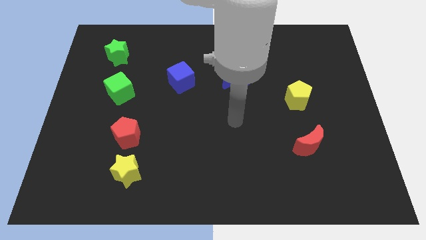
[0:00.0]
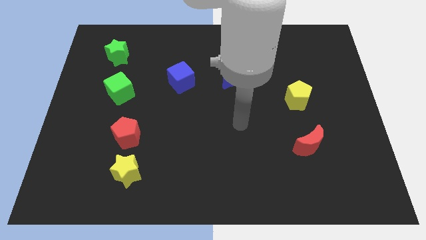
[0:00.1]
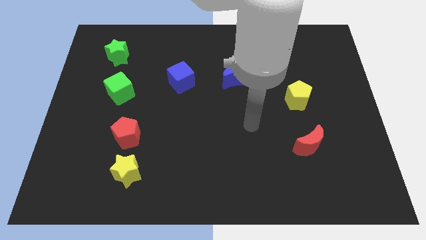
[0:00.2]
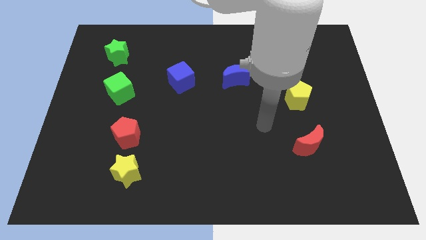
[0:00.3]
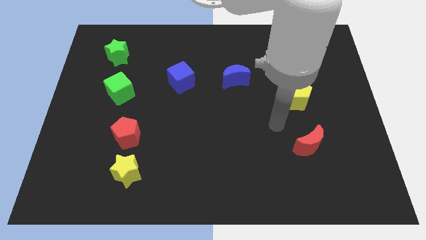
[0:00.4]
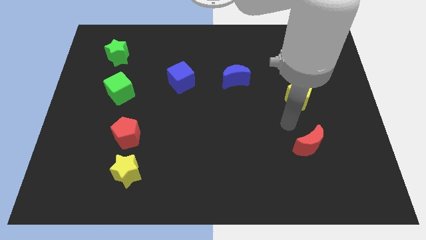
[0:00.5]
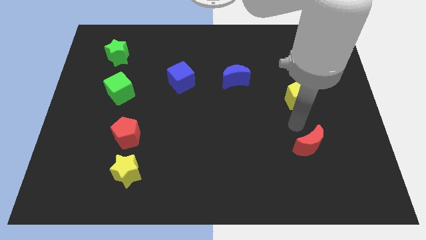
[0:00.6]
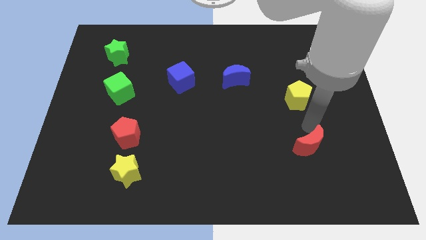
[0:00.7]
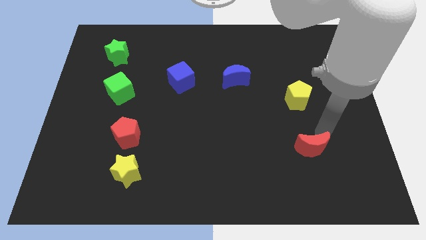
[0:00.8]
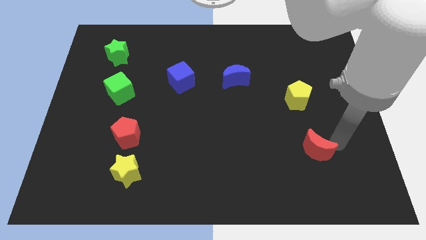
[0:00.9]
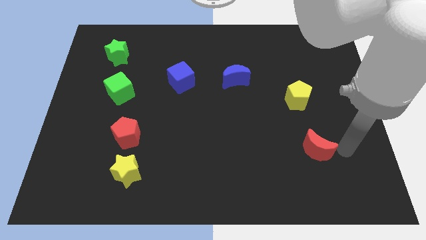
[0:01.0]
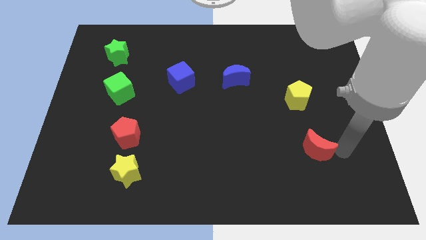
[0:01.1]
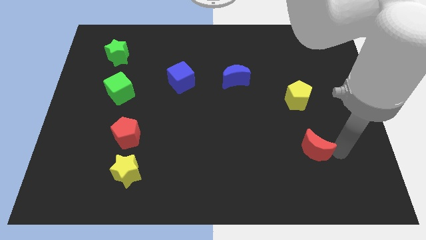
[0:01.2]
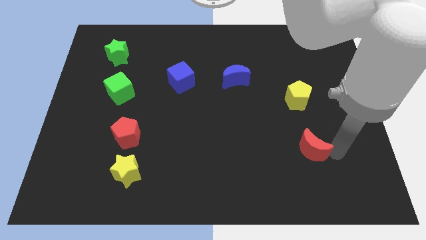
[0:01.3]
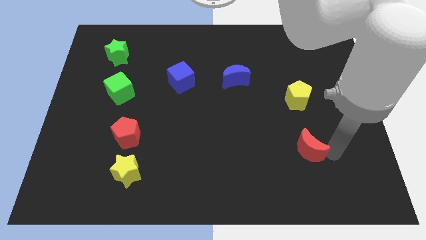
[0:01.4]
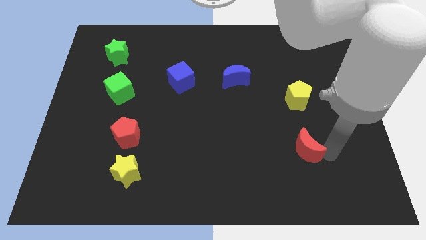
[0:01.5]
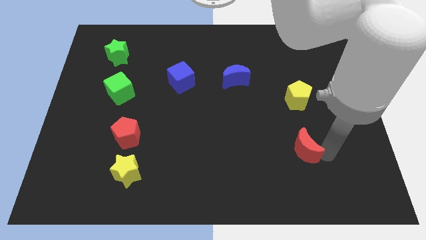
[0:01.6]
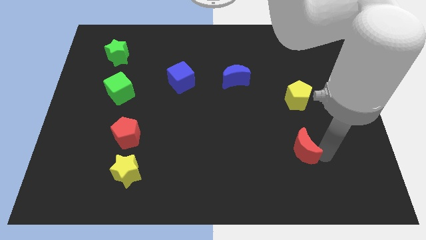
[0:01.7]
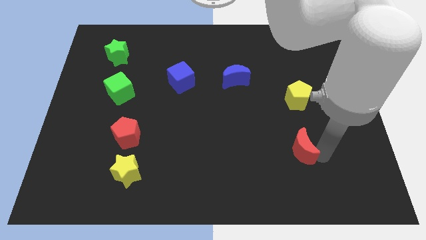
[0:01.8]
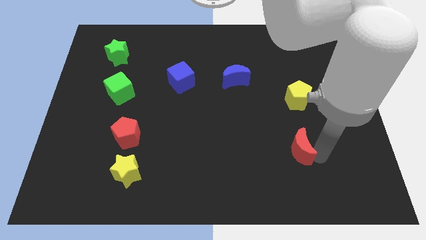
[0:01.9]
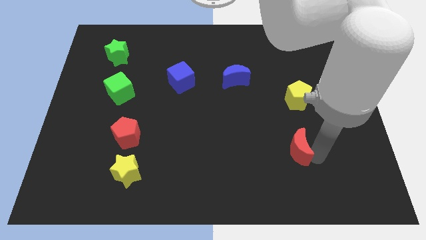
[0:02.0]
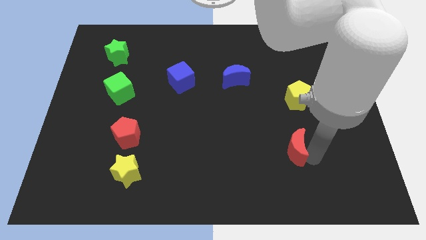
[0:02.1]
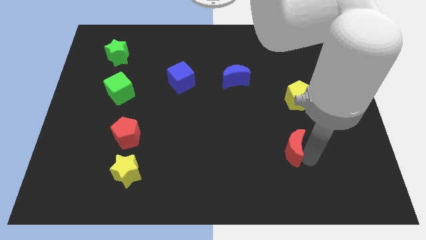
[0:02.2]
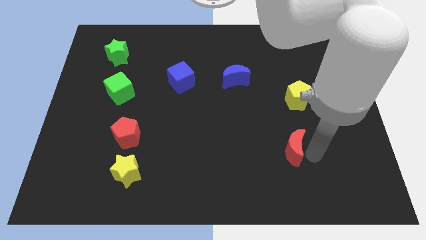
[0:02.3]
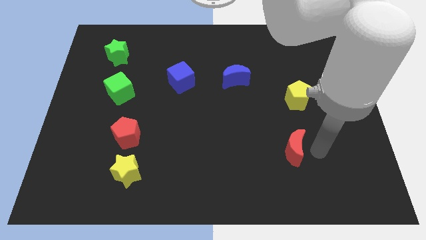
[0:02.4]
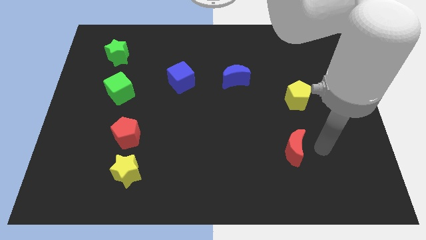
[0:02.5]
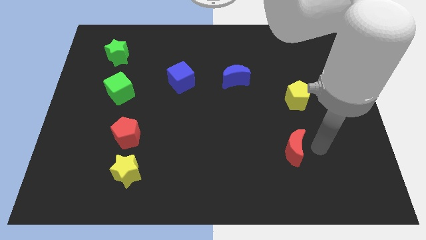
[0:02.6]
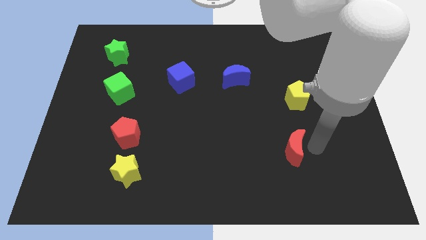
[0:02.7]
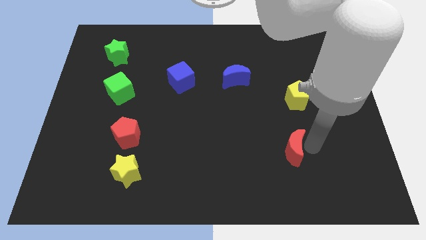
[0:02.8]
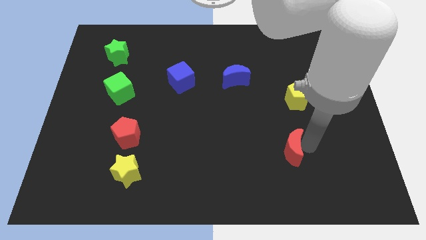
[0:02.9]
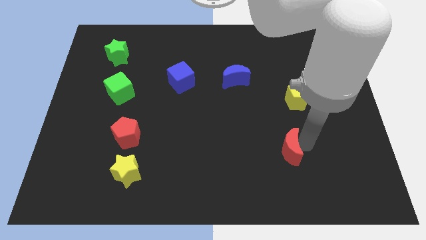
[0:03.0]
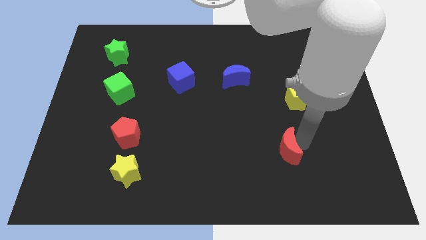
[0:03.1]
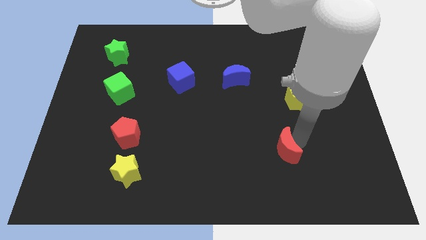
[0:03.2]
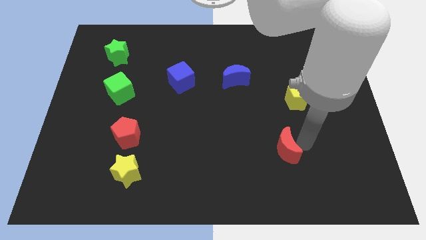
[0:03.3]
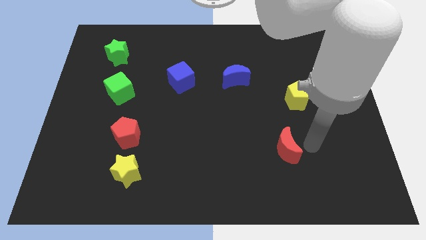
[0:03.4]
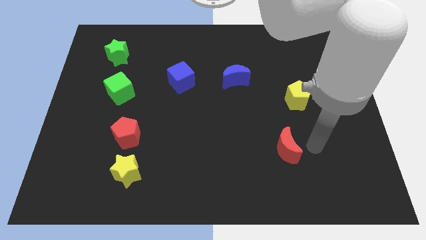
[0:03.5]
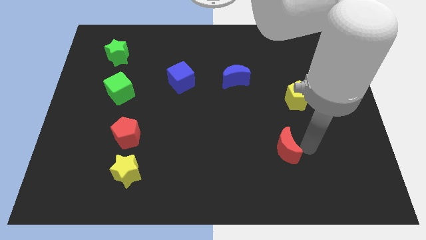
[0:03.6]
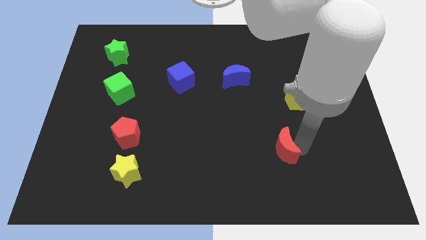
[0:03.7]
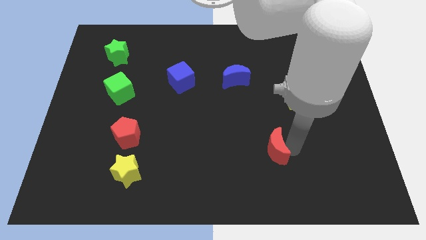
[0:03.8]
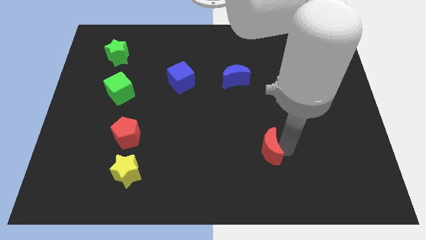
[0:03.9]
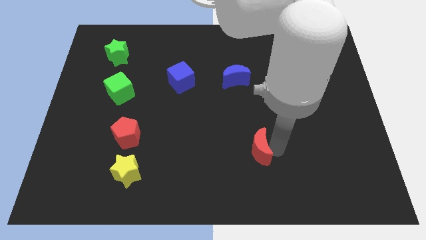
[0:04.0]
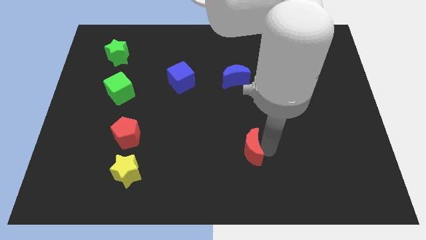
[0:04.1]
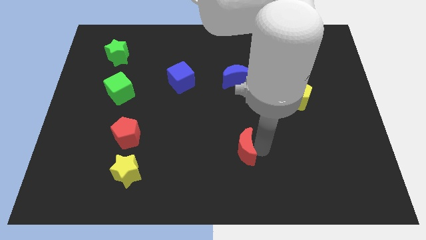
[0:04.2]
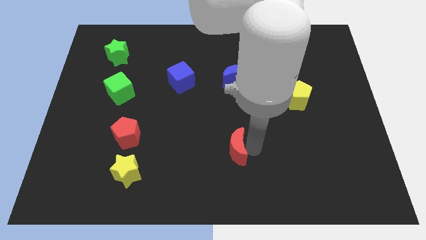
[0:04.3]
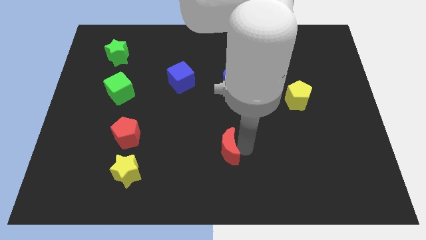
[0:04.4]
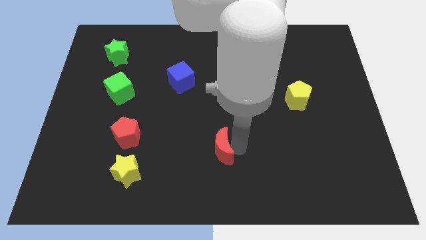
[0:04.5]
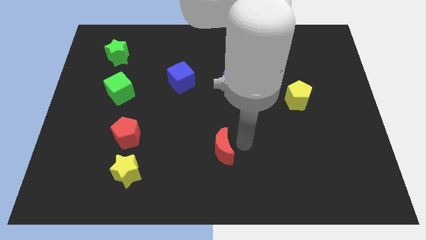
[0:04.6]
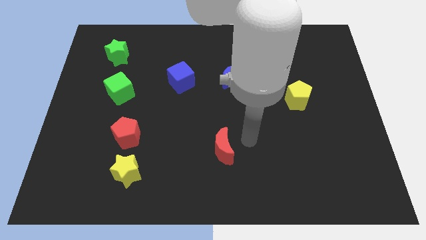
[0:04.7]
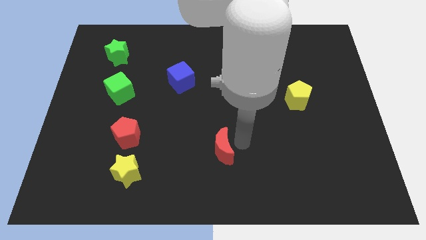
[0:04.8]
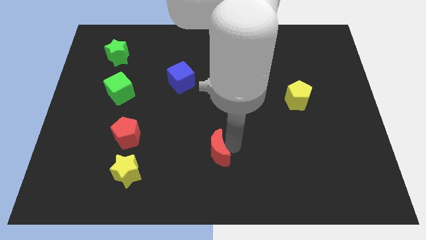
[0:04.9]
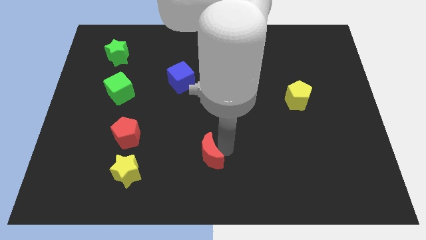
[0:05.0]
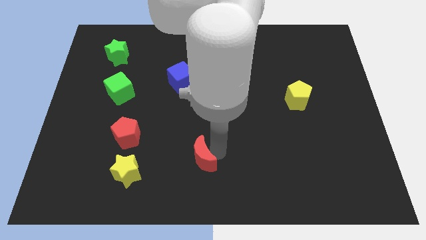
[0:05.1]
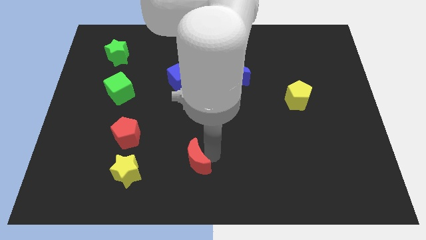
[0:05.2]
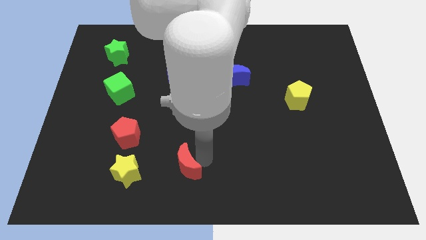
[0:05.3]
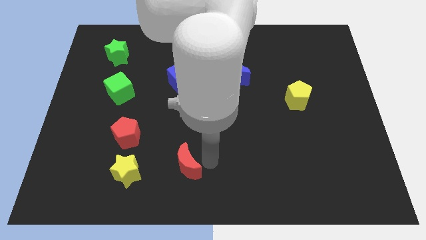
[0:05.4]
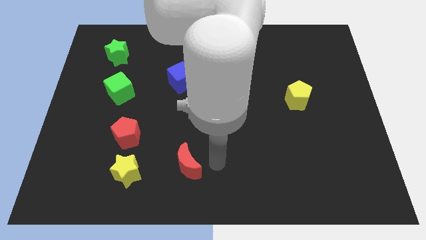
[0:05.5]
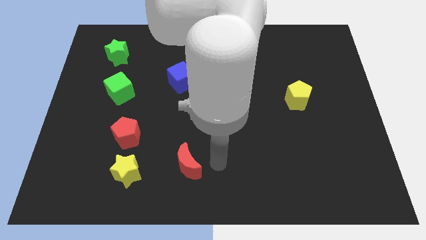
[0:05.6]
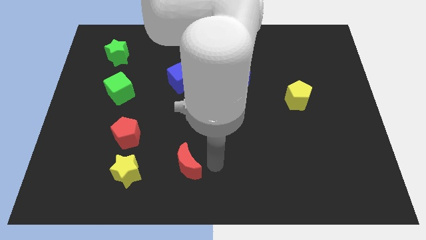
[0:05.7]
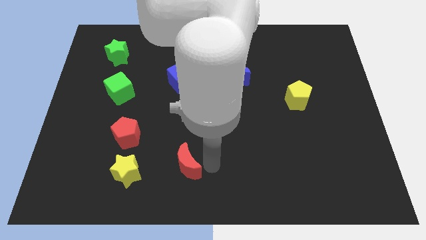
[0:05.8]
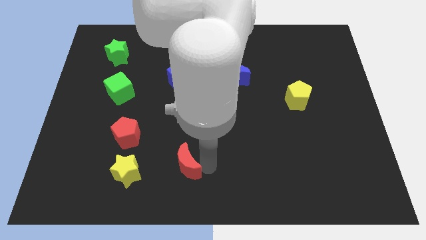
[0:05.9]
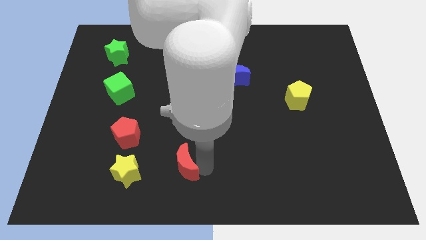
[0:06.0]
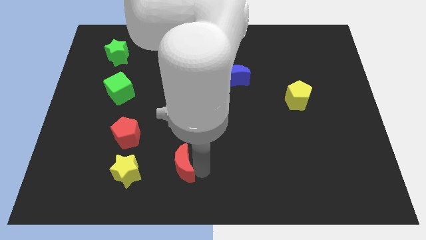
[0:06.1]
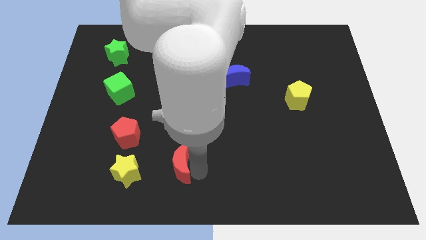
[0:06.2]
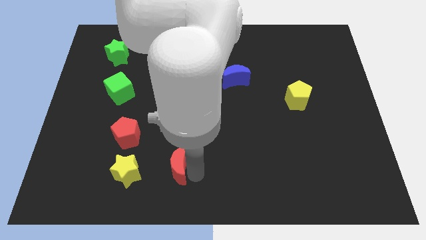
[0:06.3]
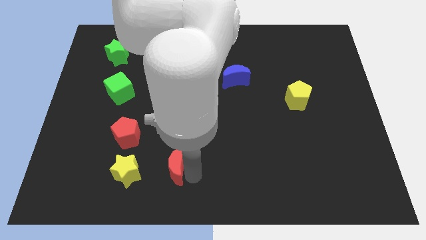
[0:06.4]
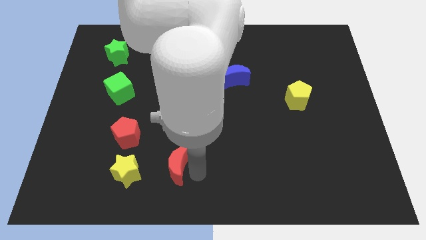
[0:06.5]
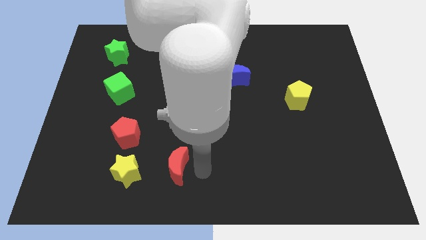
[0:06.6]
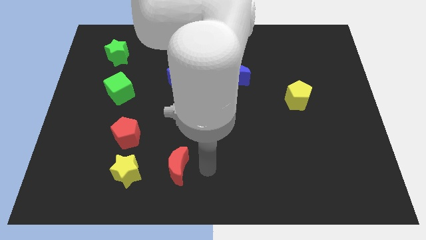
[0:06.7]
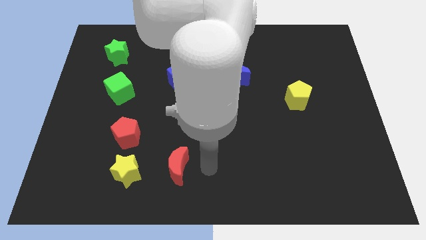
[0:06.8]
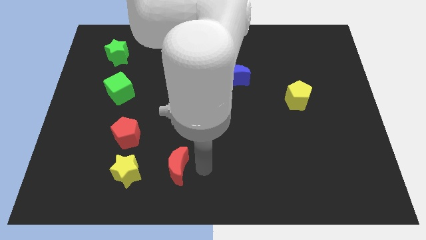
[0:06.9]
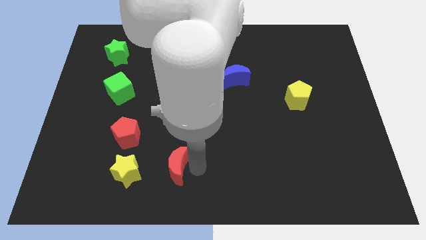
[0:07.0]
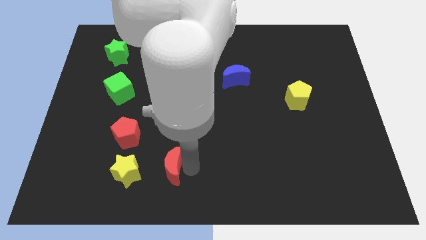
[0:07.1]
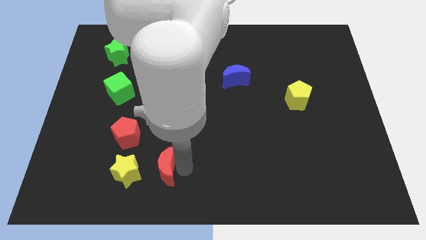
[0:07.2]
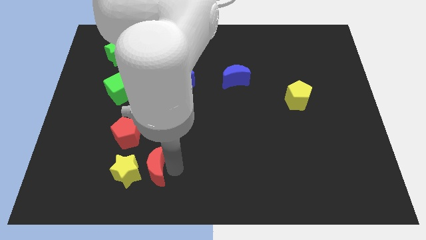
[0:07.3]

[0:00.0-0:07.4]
move the red moon to the yellow star
